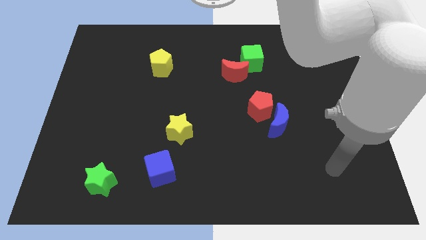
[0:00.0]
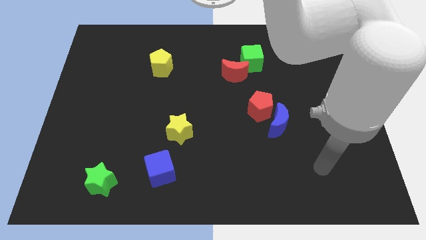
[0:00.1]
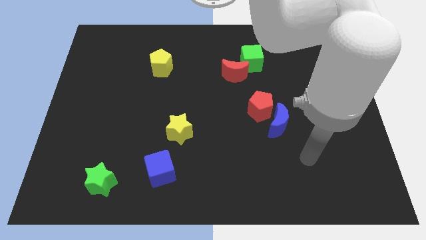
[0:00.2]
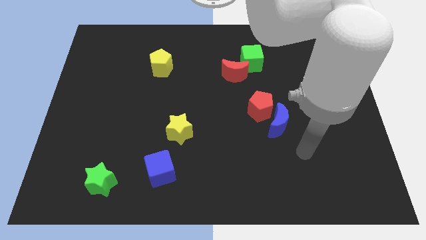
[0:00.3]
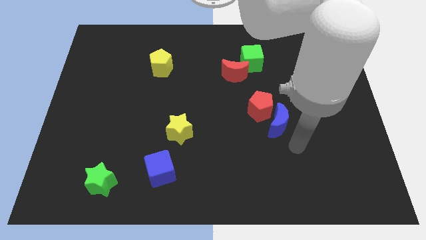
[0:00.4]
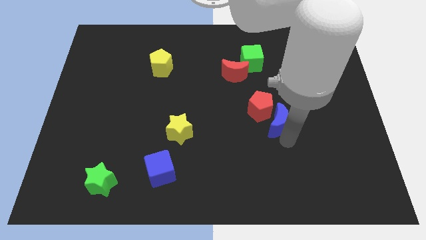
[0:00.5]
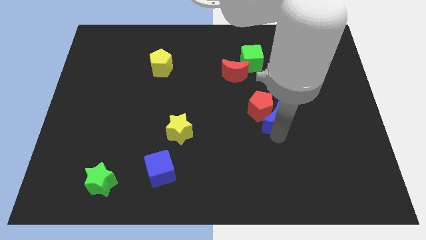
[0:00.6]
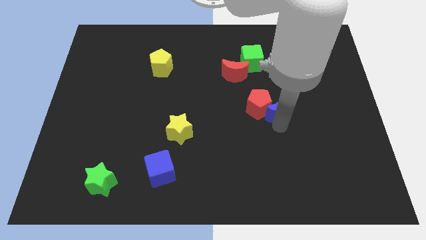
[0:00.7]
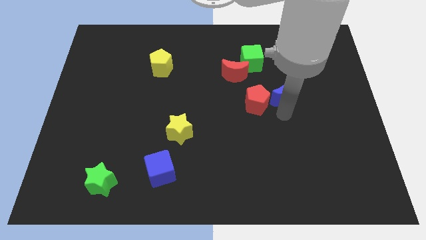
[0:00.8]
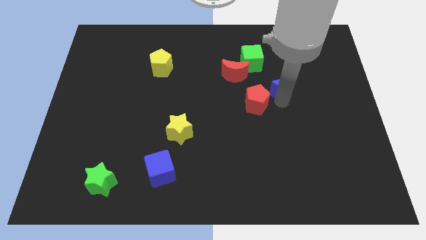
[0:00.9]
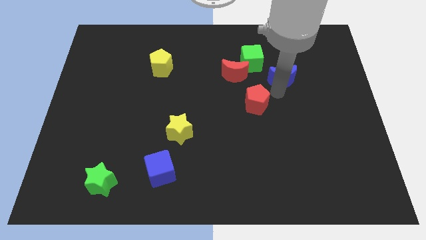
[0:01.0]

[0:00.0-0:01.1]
pull the red pentagon apart from the blue moon

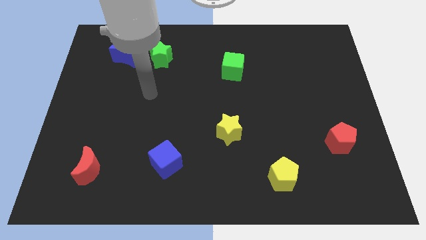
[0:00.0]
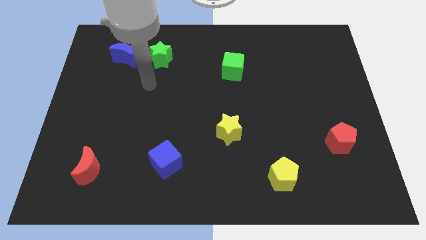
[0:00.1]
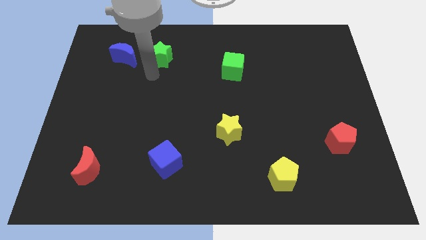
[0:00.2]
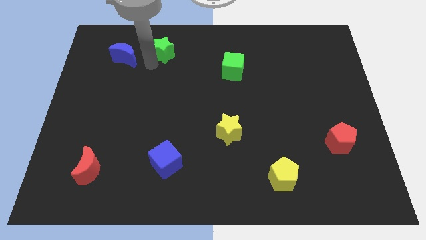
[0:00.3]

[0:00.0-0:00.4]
separate the blue moon from the green star

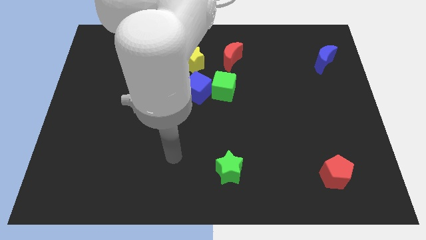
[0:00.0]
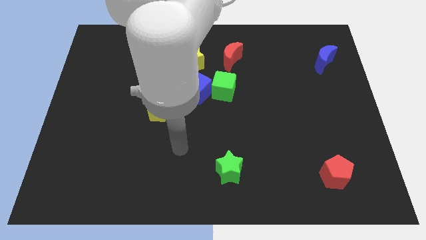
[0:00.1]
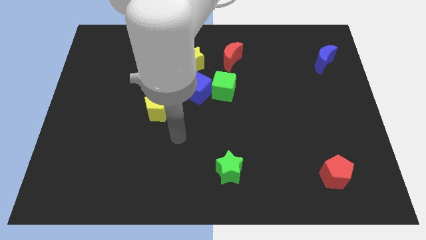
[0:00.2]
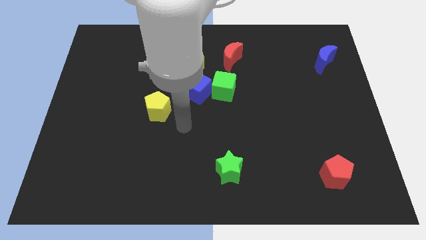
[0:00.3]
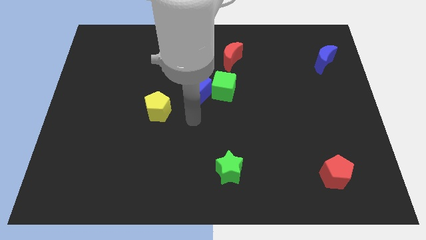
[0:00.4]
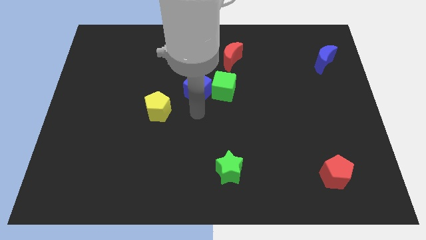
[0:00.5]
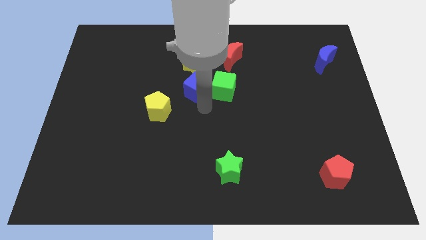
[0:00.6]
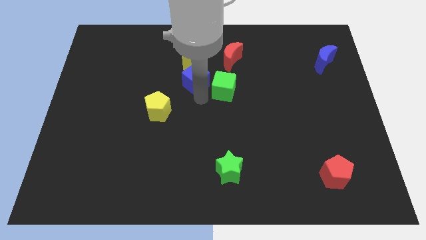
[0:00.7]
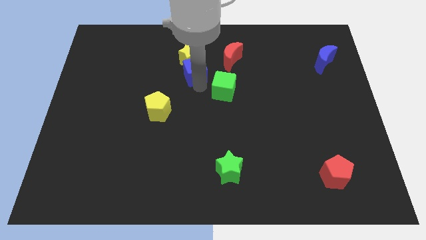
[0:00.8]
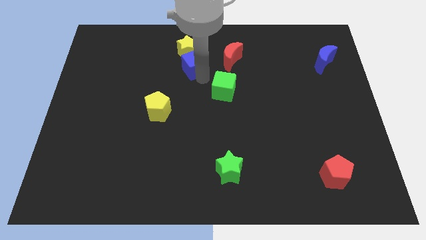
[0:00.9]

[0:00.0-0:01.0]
separate the green cube from the blue cube

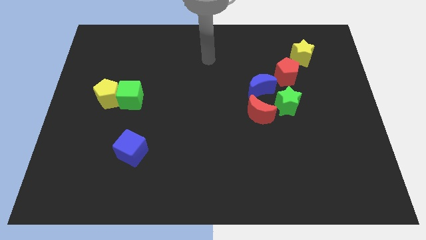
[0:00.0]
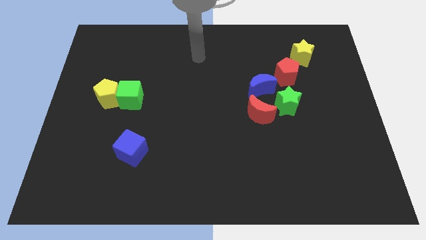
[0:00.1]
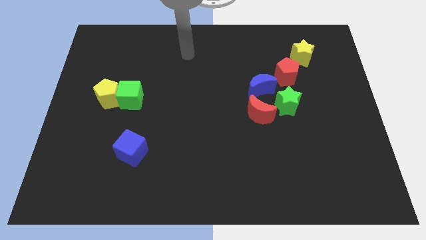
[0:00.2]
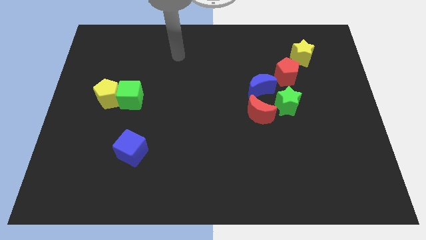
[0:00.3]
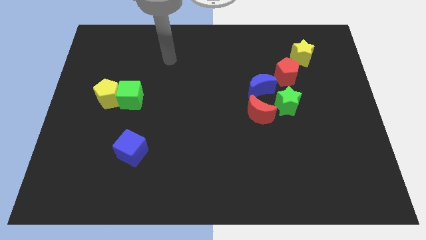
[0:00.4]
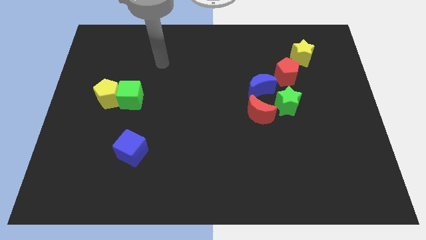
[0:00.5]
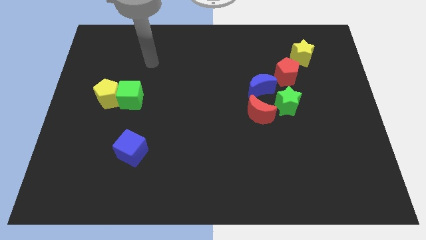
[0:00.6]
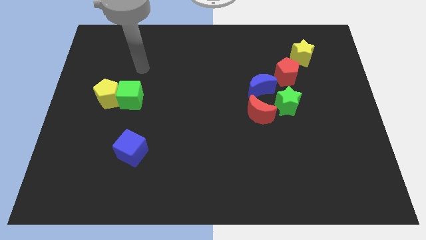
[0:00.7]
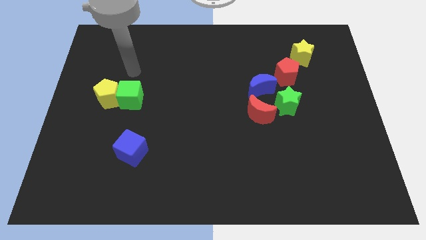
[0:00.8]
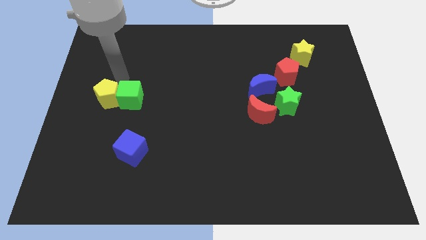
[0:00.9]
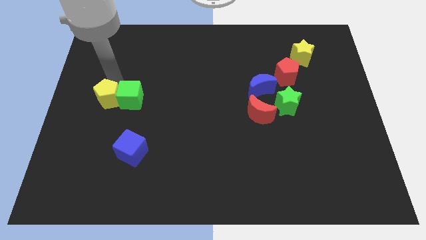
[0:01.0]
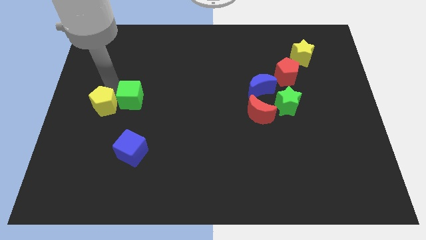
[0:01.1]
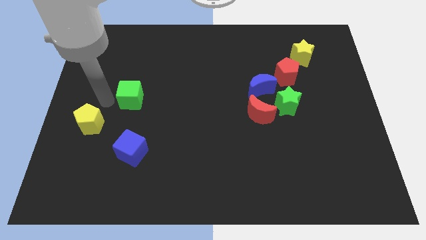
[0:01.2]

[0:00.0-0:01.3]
move the green cube away from the yellow pentagon

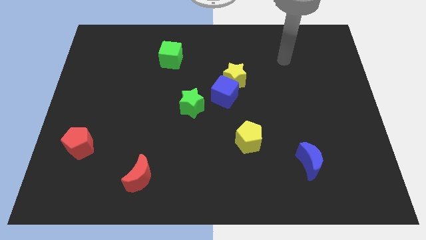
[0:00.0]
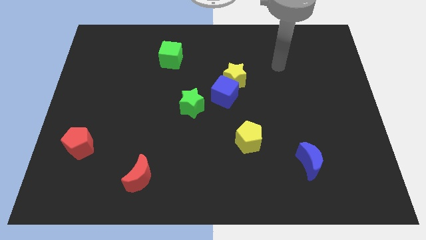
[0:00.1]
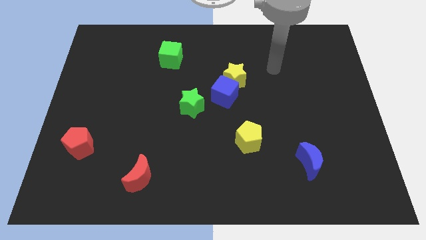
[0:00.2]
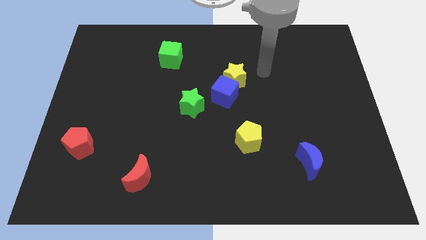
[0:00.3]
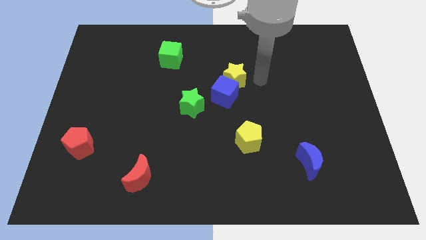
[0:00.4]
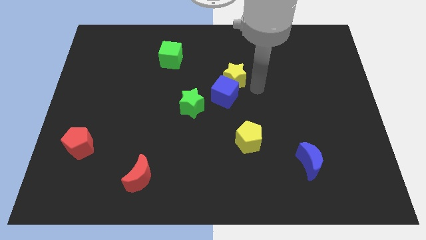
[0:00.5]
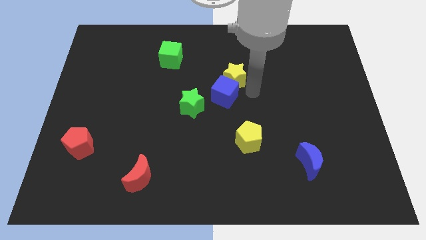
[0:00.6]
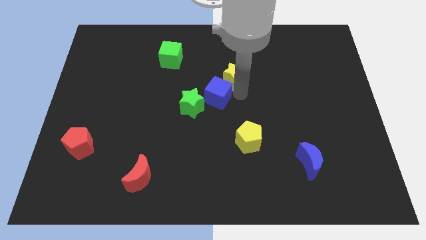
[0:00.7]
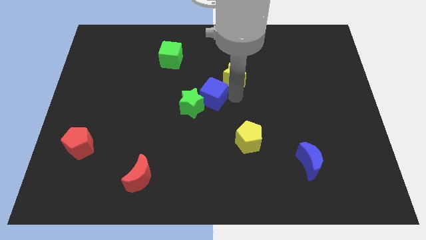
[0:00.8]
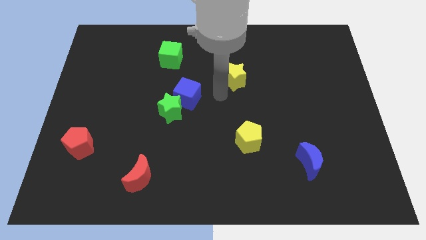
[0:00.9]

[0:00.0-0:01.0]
move the yellow star away from the blue cube

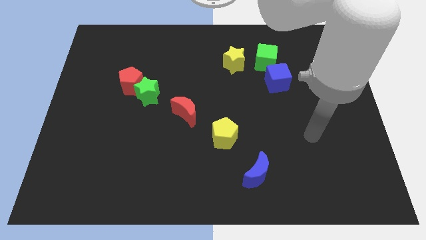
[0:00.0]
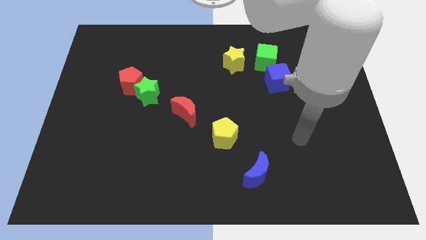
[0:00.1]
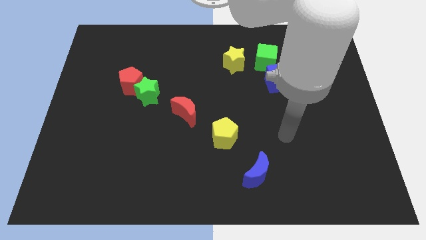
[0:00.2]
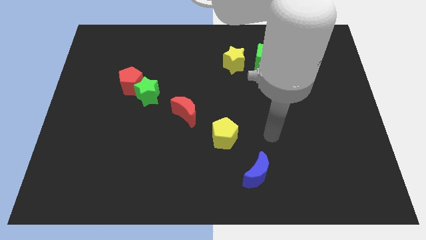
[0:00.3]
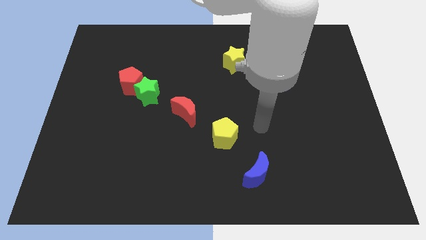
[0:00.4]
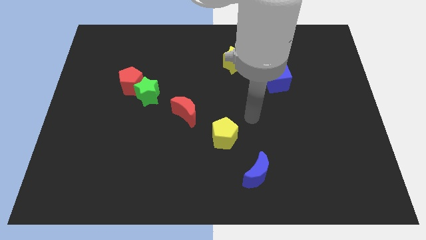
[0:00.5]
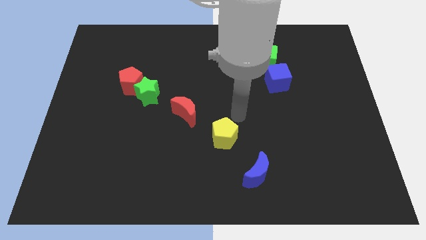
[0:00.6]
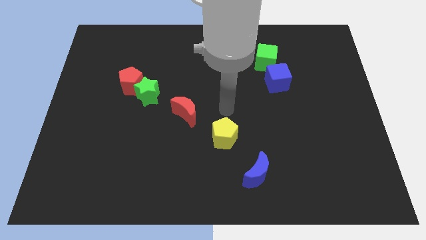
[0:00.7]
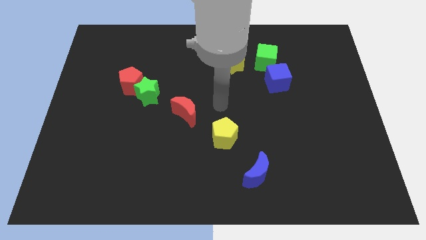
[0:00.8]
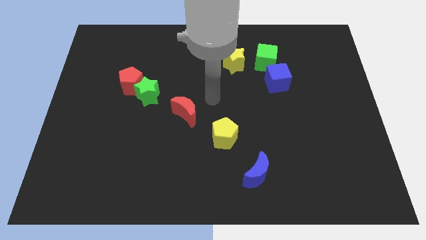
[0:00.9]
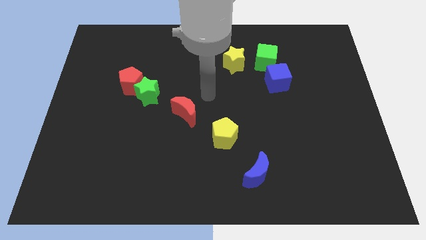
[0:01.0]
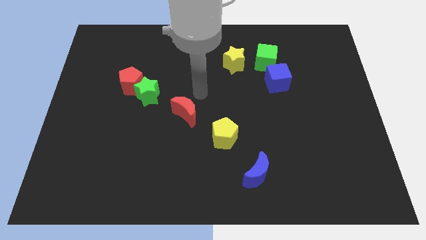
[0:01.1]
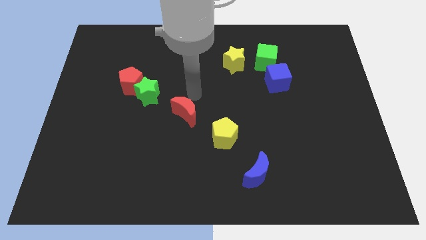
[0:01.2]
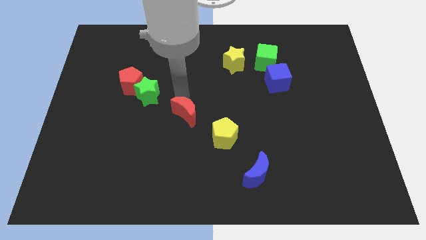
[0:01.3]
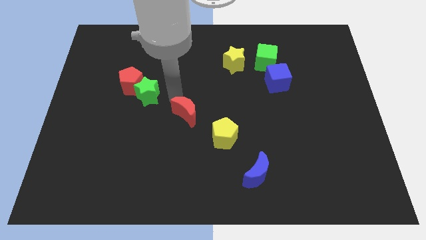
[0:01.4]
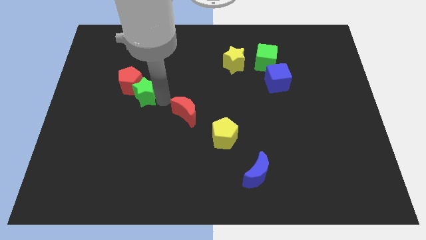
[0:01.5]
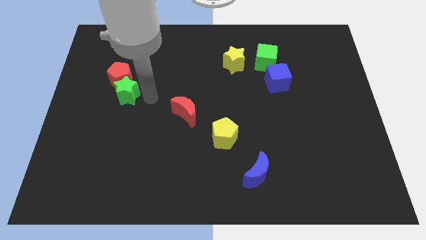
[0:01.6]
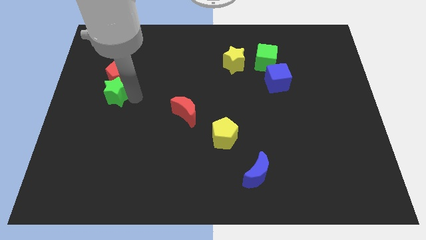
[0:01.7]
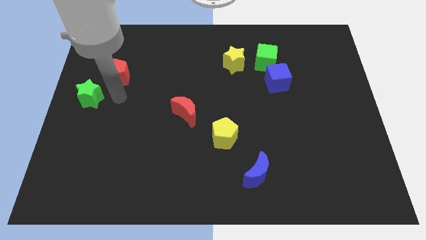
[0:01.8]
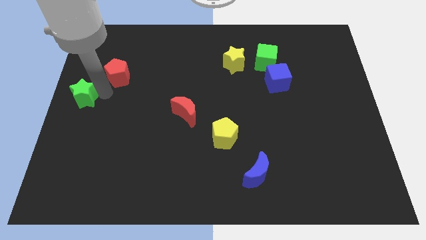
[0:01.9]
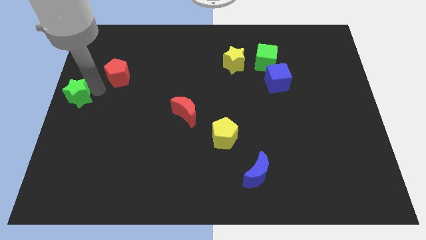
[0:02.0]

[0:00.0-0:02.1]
move the red pentagon away from the green star

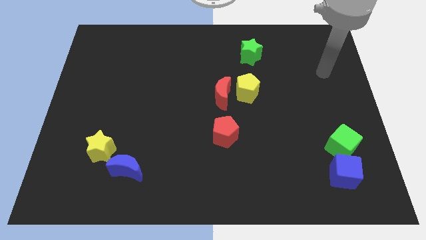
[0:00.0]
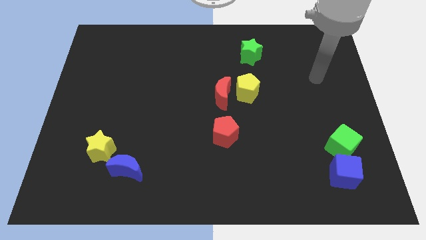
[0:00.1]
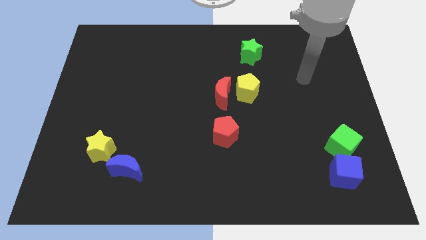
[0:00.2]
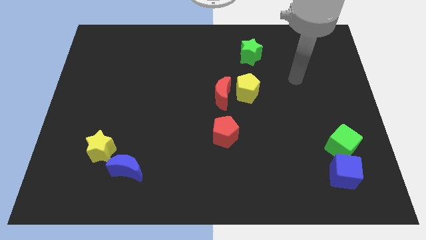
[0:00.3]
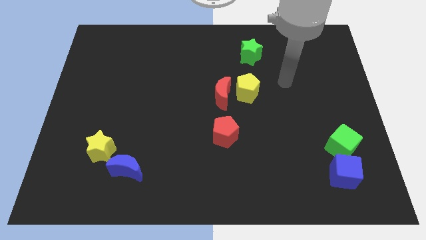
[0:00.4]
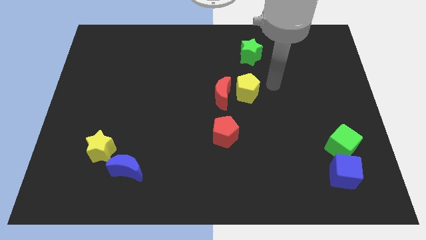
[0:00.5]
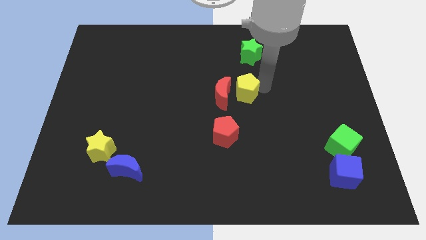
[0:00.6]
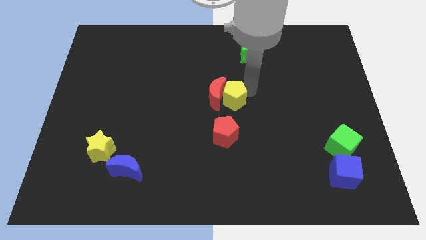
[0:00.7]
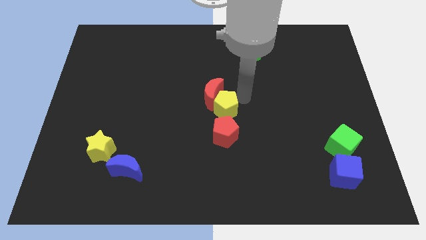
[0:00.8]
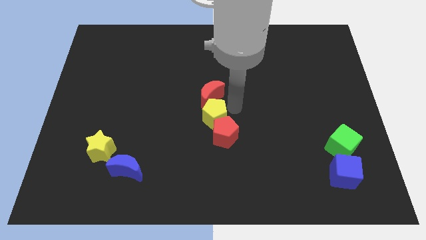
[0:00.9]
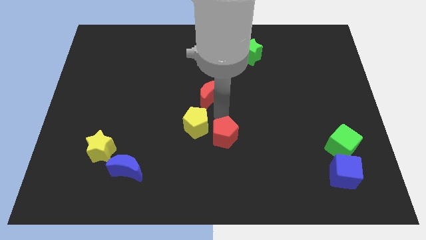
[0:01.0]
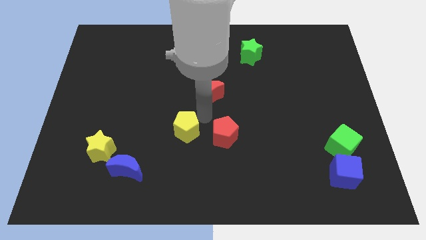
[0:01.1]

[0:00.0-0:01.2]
move the red moon away from the yellow pentagon

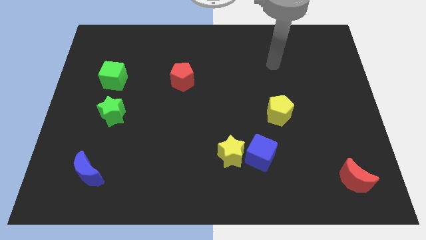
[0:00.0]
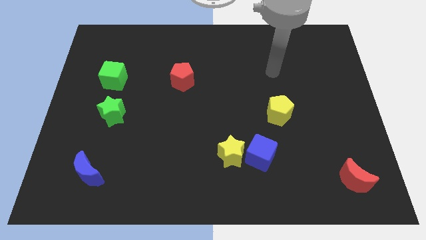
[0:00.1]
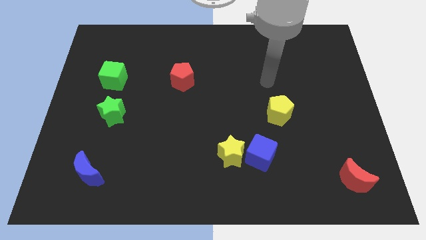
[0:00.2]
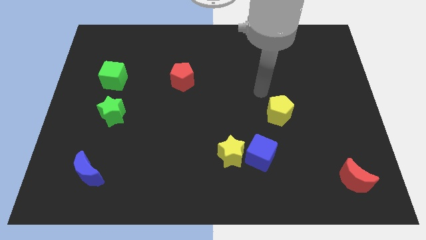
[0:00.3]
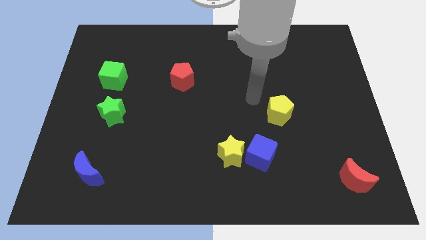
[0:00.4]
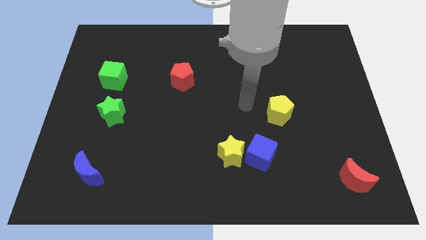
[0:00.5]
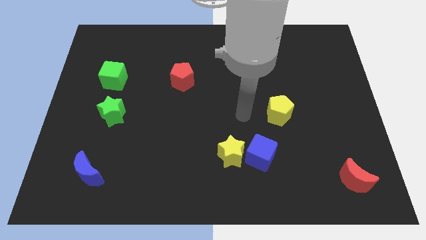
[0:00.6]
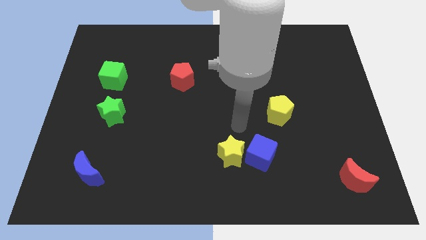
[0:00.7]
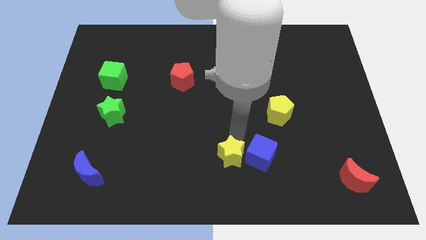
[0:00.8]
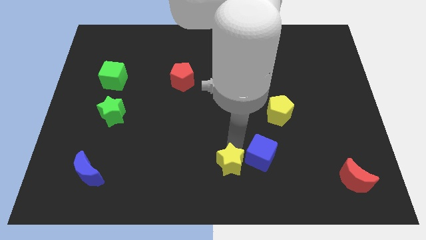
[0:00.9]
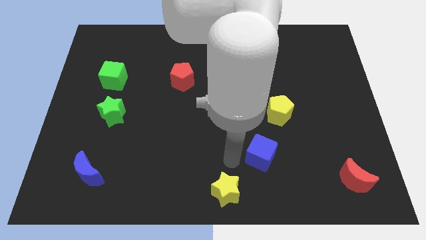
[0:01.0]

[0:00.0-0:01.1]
pull the blue cube apart from the yellow star

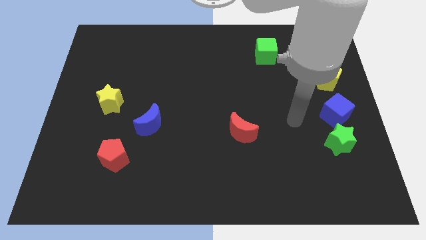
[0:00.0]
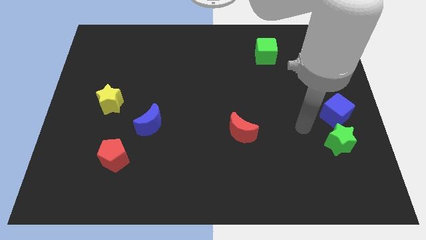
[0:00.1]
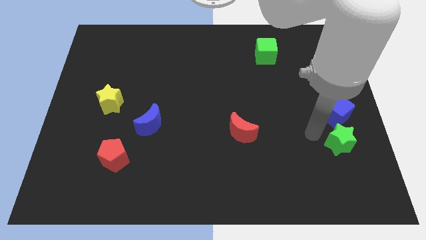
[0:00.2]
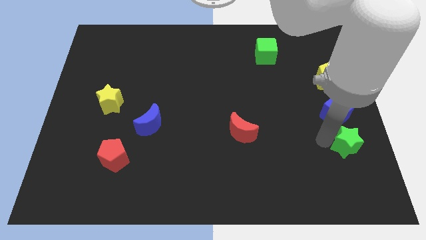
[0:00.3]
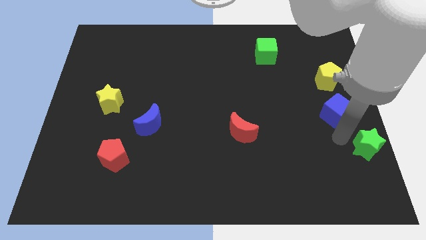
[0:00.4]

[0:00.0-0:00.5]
move the blue cube away from the green star
